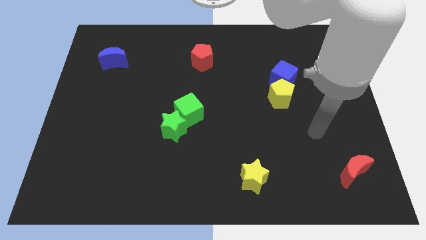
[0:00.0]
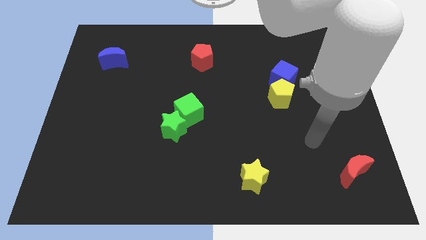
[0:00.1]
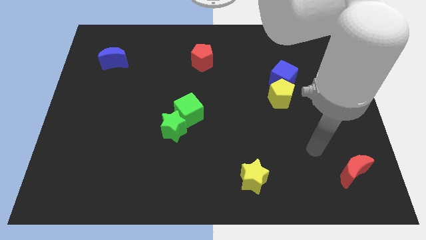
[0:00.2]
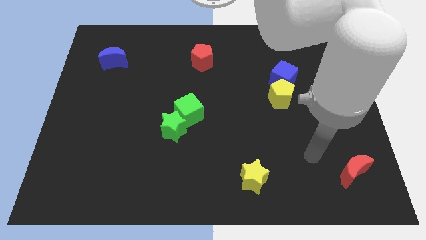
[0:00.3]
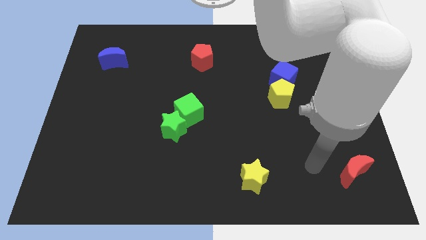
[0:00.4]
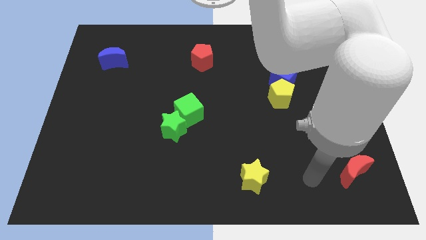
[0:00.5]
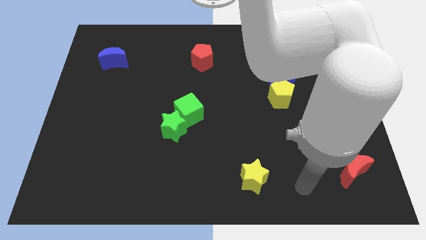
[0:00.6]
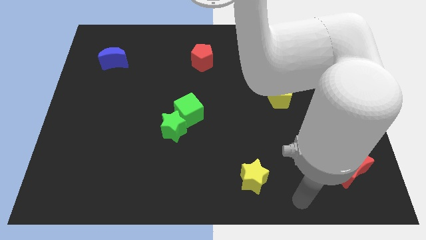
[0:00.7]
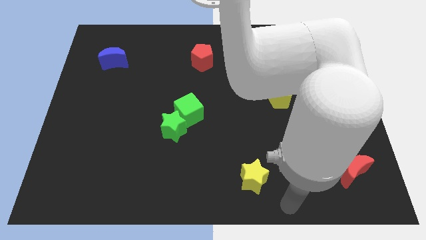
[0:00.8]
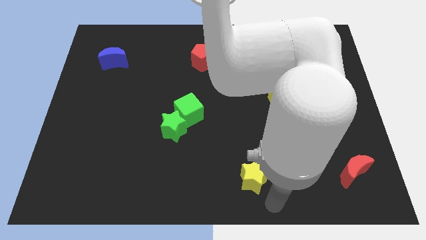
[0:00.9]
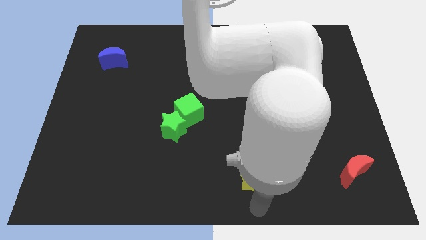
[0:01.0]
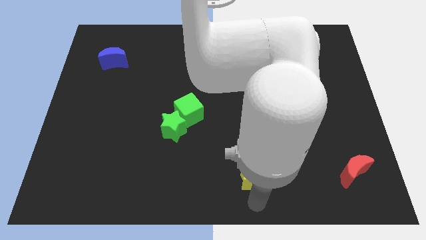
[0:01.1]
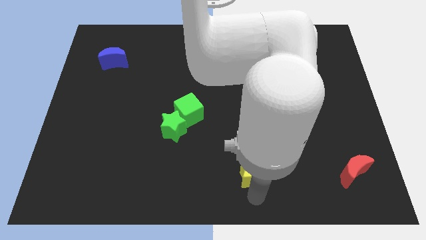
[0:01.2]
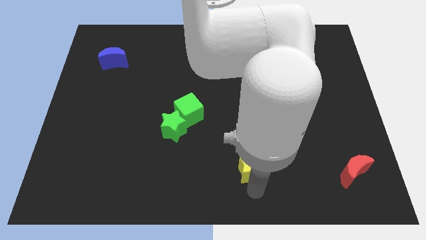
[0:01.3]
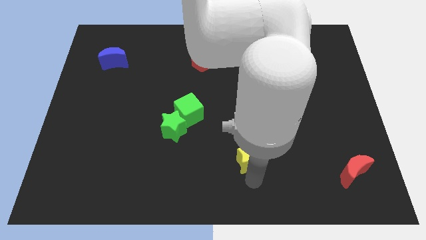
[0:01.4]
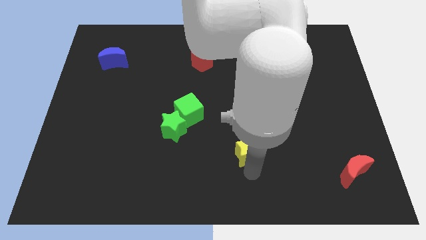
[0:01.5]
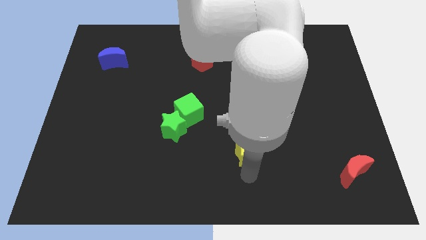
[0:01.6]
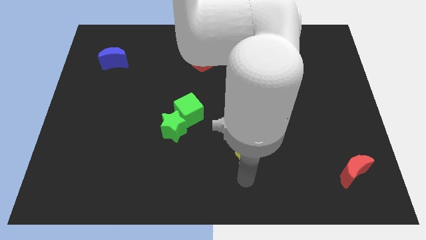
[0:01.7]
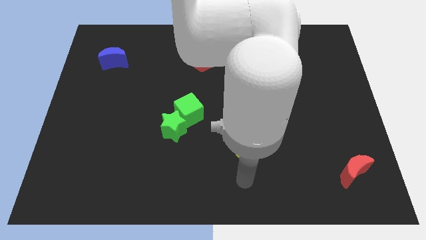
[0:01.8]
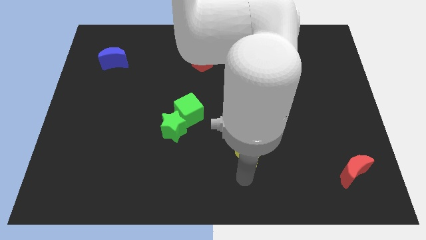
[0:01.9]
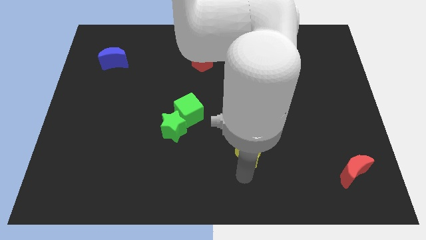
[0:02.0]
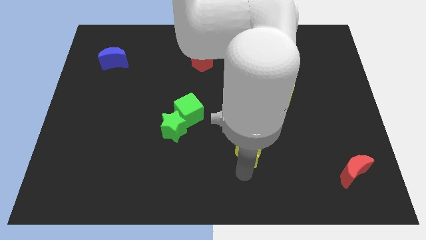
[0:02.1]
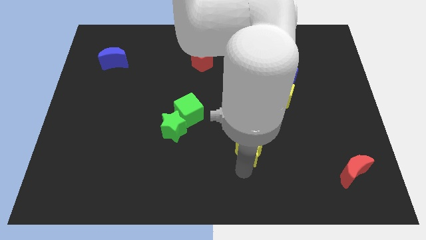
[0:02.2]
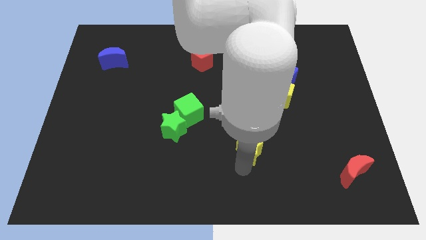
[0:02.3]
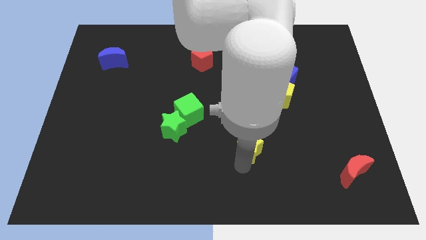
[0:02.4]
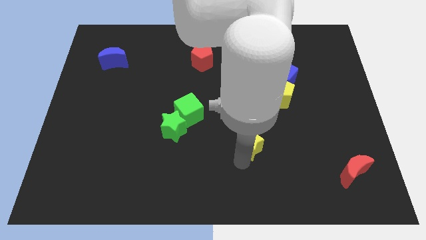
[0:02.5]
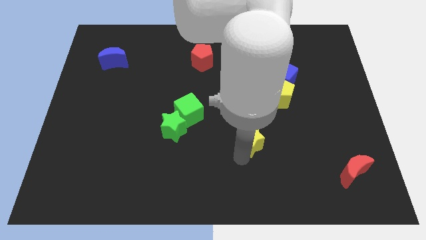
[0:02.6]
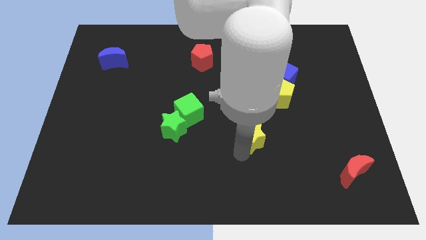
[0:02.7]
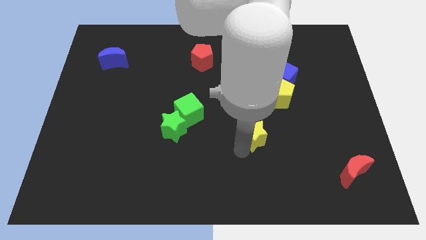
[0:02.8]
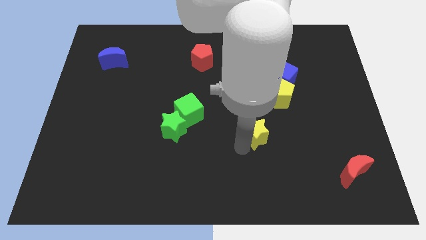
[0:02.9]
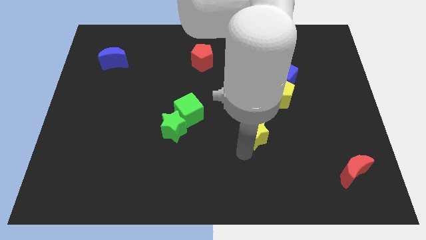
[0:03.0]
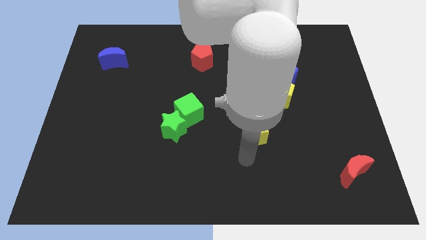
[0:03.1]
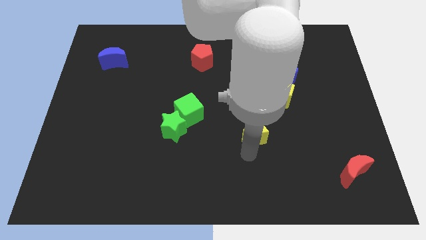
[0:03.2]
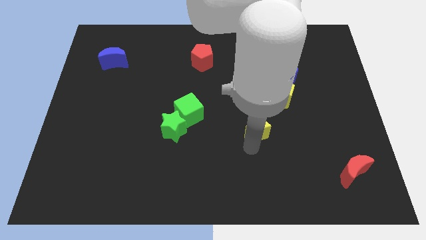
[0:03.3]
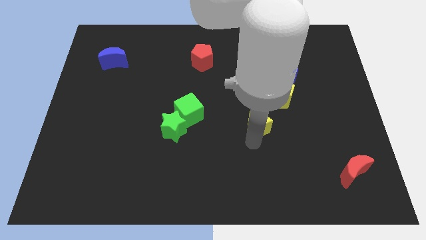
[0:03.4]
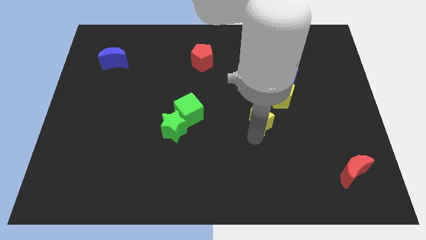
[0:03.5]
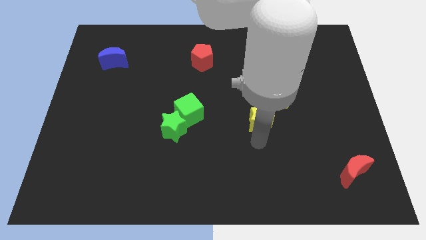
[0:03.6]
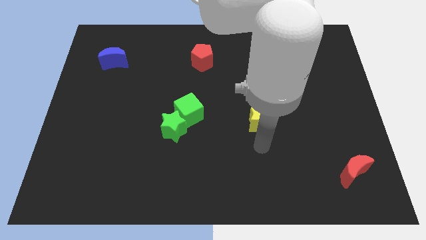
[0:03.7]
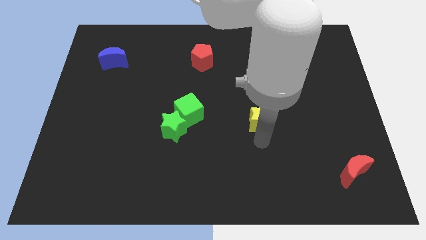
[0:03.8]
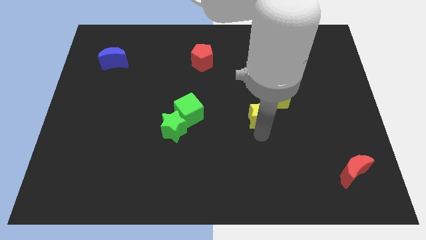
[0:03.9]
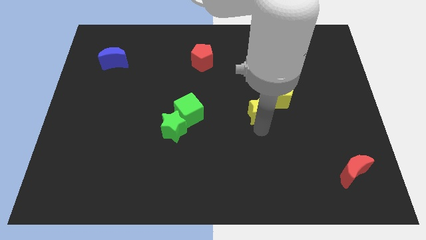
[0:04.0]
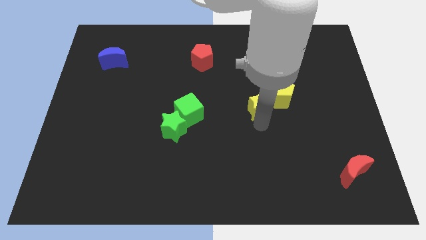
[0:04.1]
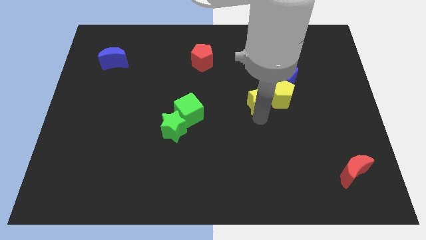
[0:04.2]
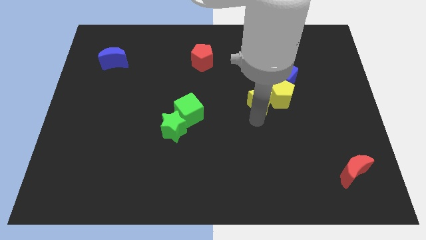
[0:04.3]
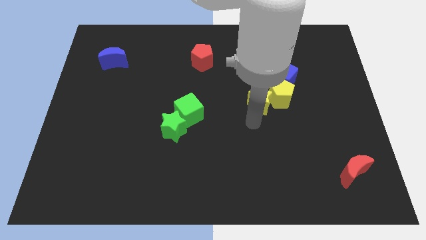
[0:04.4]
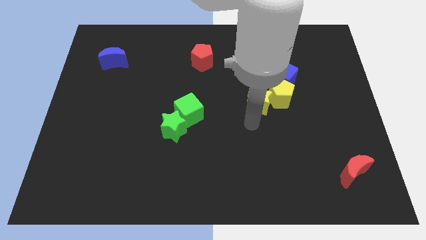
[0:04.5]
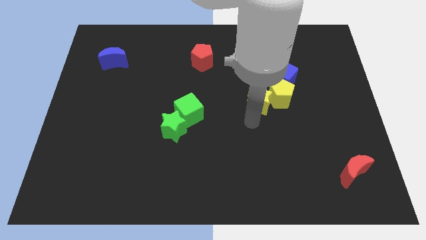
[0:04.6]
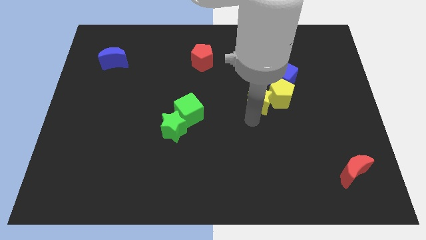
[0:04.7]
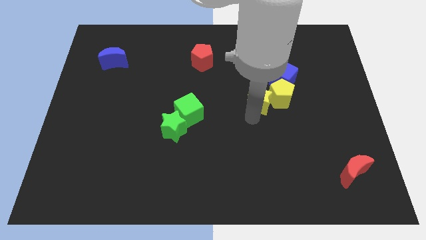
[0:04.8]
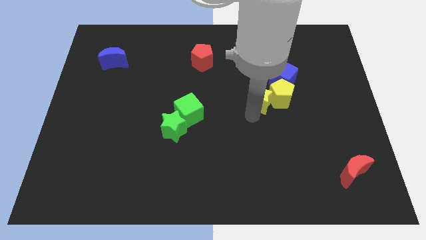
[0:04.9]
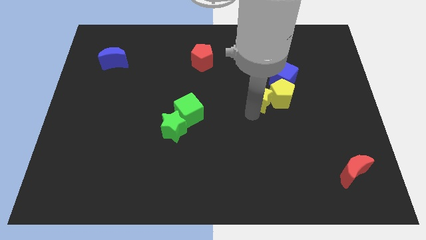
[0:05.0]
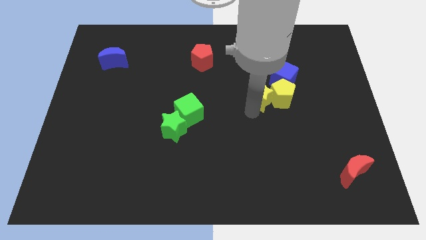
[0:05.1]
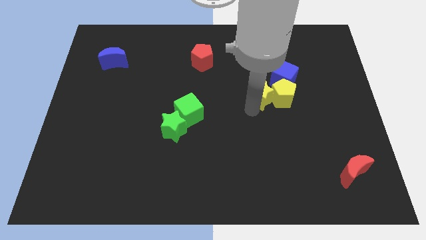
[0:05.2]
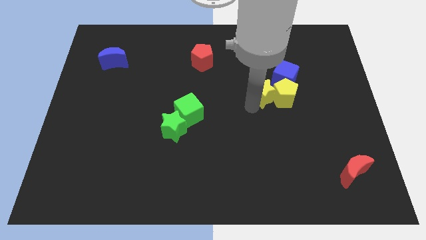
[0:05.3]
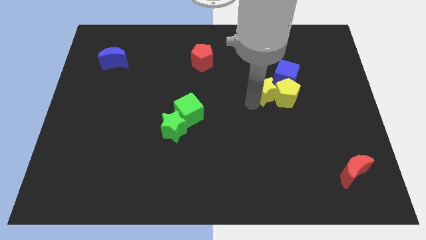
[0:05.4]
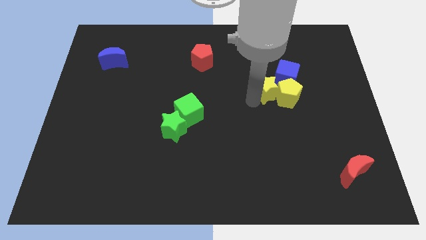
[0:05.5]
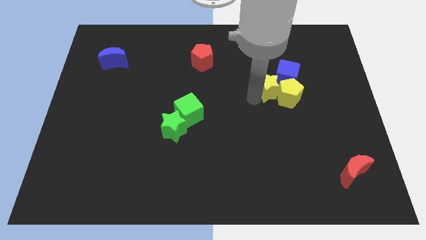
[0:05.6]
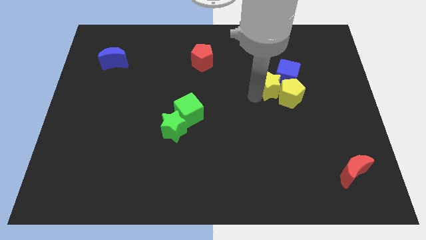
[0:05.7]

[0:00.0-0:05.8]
push the yellow star next to the blue cube

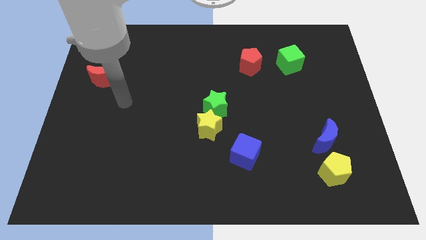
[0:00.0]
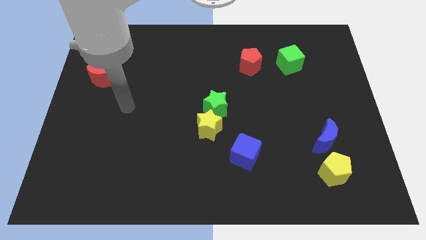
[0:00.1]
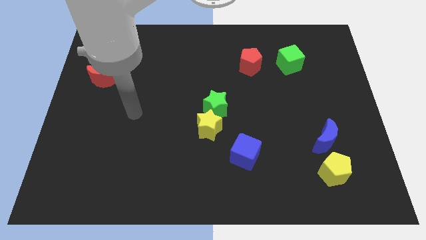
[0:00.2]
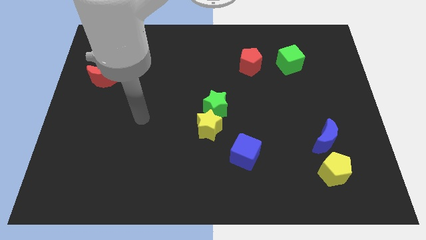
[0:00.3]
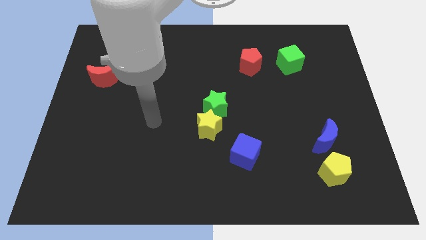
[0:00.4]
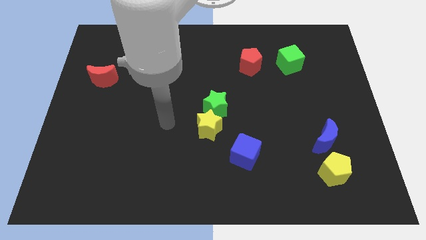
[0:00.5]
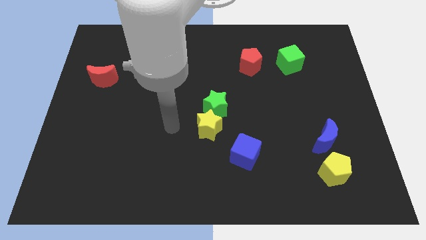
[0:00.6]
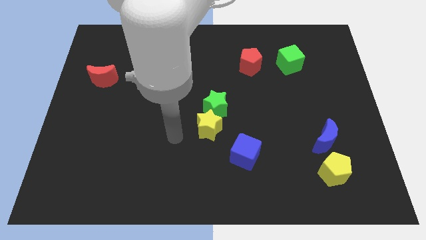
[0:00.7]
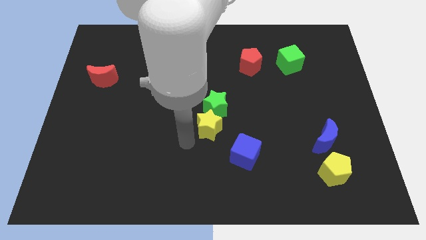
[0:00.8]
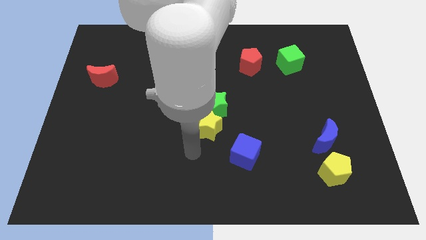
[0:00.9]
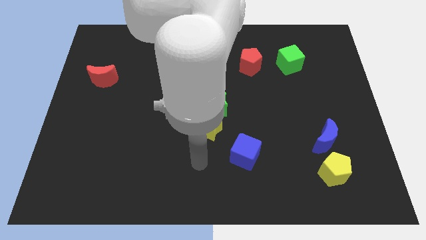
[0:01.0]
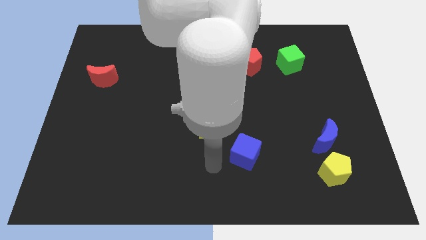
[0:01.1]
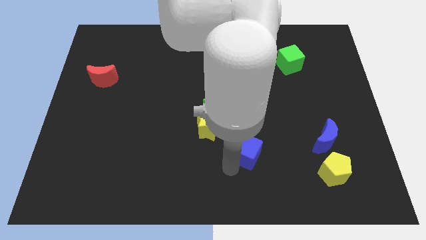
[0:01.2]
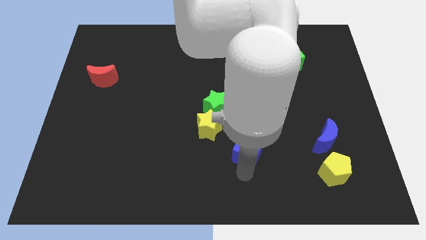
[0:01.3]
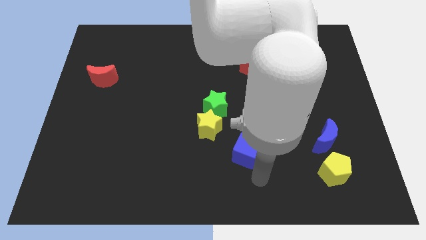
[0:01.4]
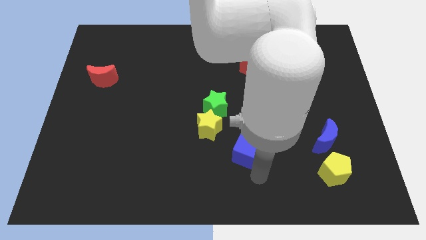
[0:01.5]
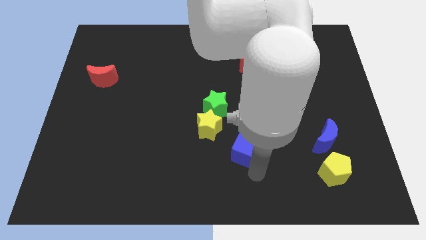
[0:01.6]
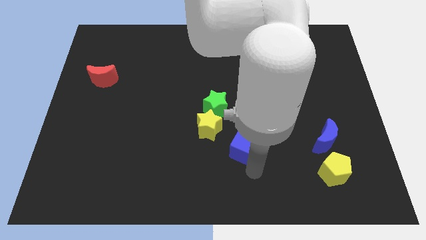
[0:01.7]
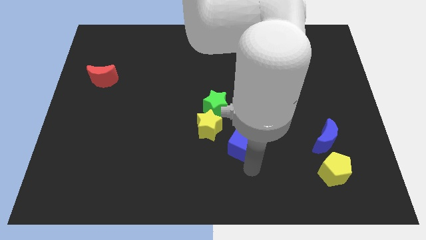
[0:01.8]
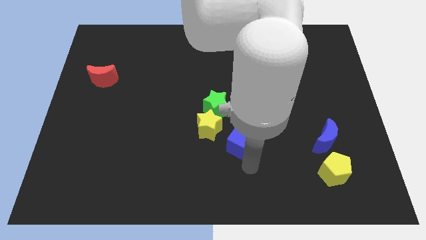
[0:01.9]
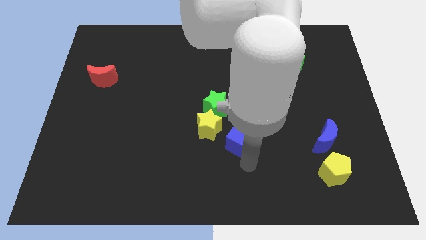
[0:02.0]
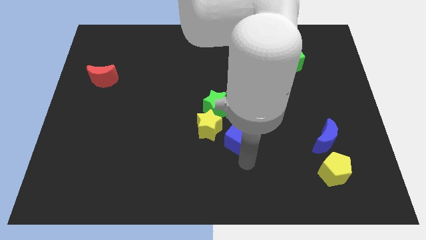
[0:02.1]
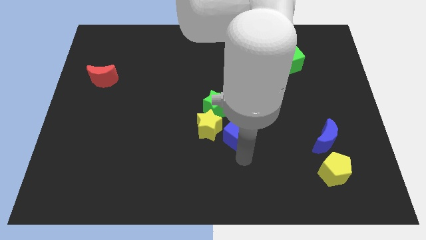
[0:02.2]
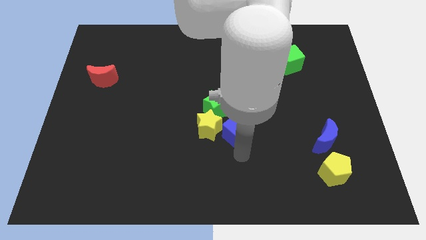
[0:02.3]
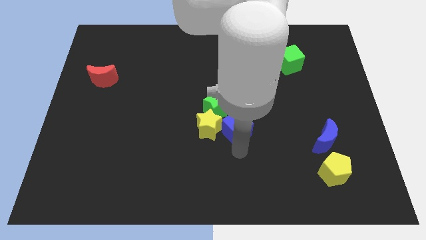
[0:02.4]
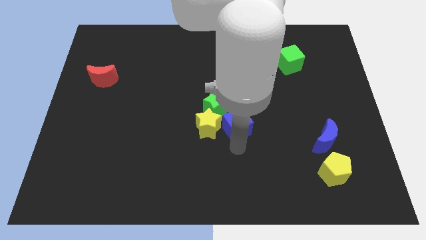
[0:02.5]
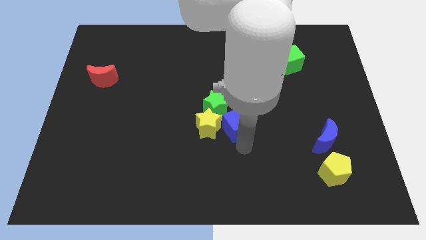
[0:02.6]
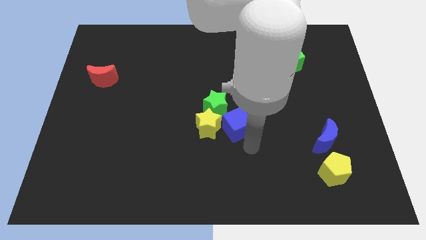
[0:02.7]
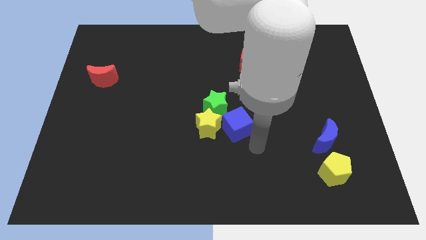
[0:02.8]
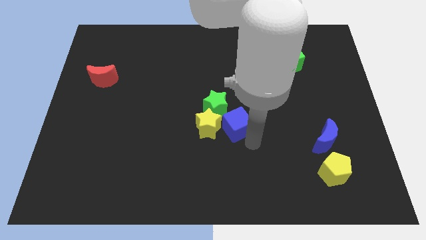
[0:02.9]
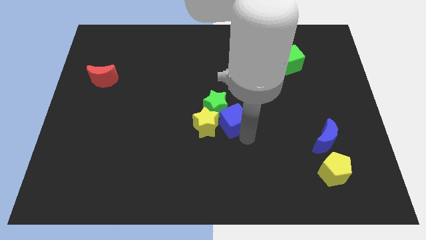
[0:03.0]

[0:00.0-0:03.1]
slide the blue cube next to the green star
